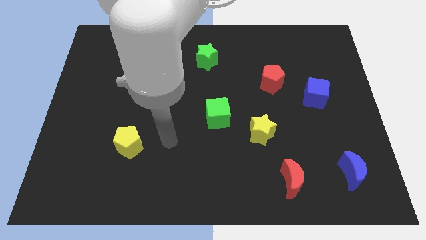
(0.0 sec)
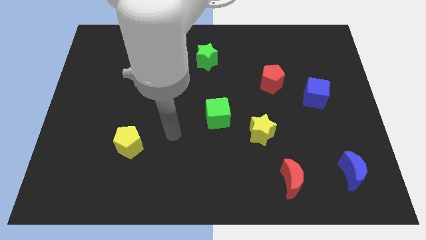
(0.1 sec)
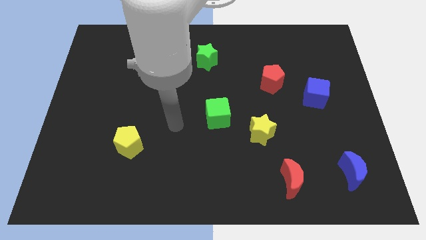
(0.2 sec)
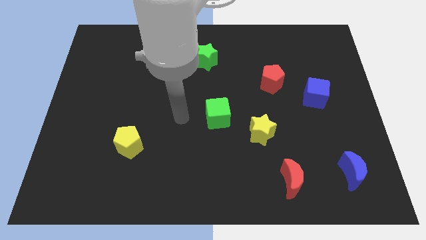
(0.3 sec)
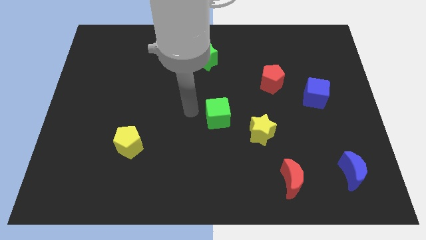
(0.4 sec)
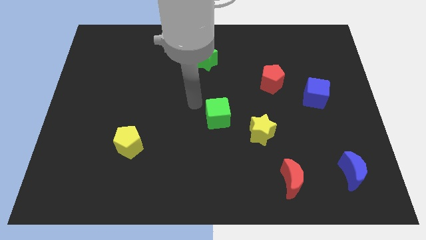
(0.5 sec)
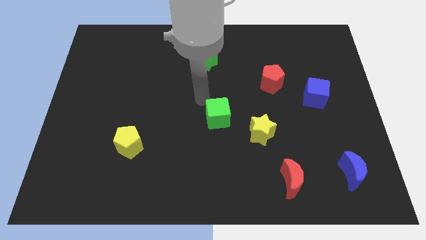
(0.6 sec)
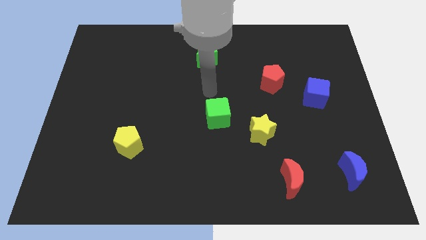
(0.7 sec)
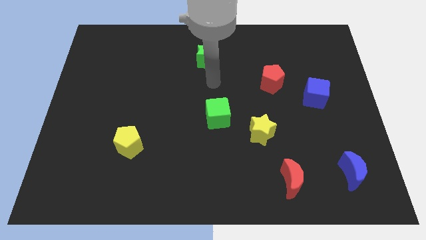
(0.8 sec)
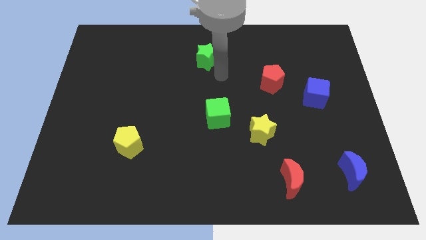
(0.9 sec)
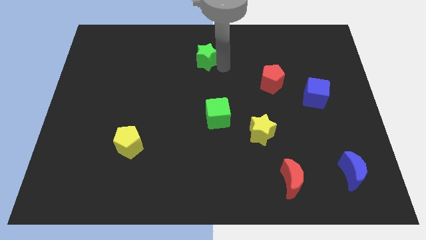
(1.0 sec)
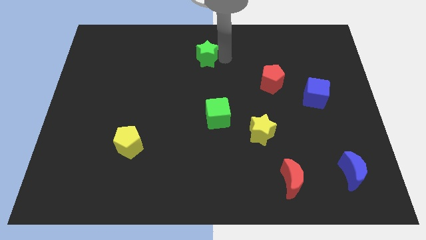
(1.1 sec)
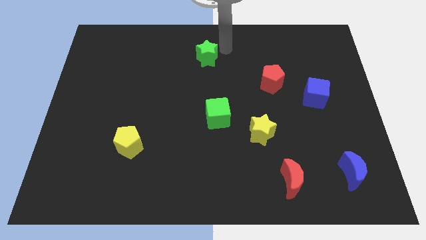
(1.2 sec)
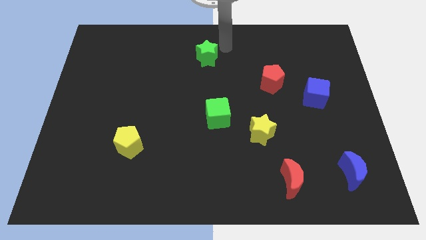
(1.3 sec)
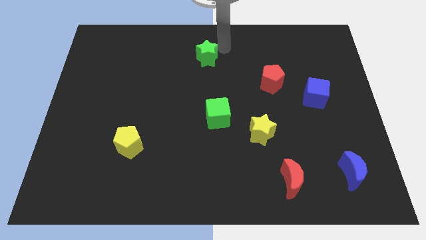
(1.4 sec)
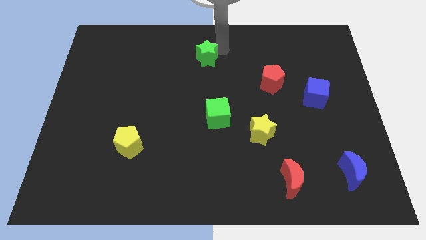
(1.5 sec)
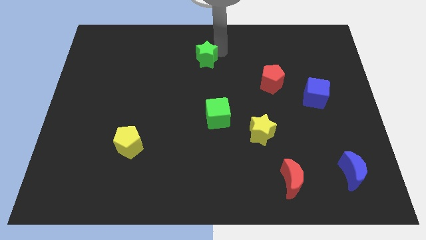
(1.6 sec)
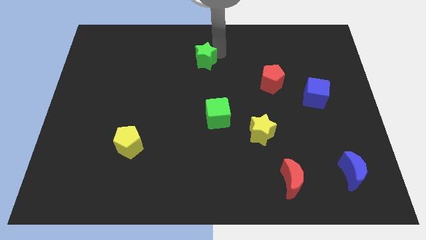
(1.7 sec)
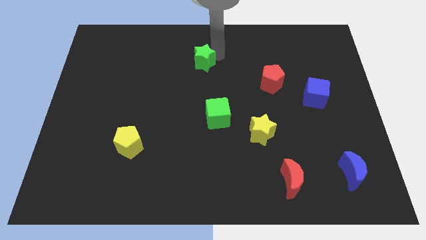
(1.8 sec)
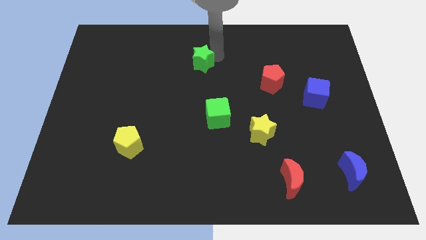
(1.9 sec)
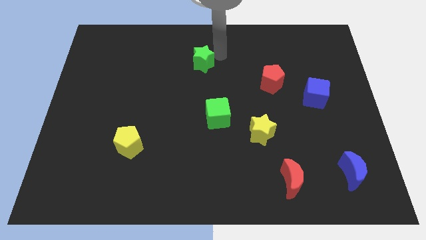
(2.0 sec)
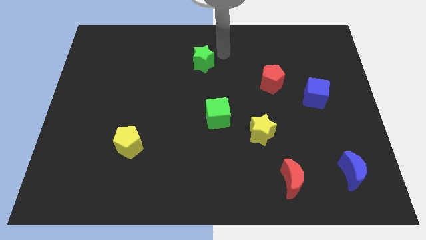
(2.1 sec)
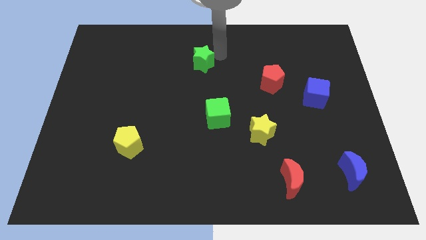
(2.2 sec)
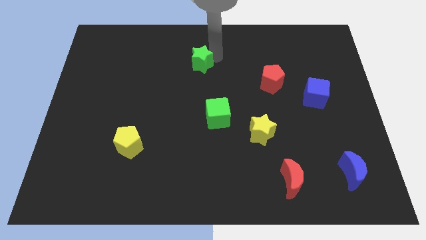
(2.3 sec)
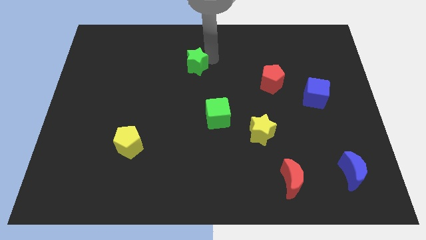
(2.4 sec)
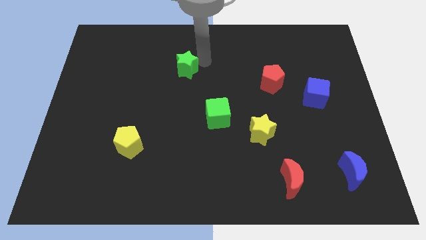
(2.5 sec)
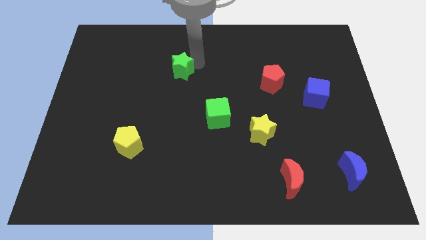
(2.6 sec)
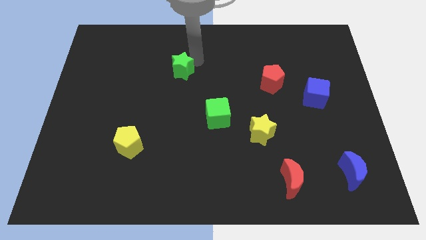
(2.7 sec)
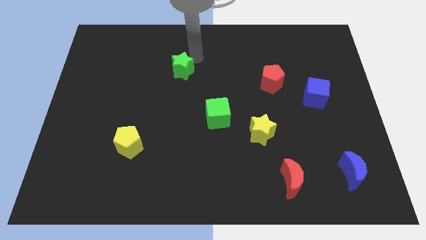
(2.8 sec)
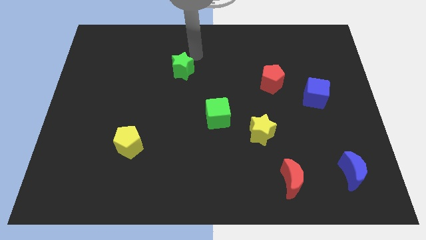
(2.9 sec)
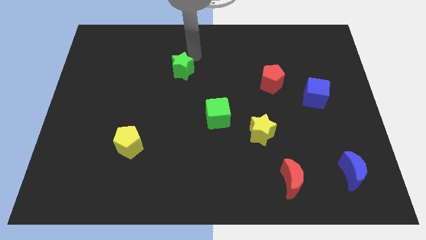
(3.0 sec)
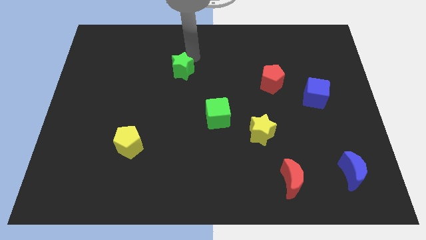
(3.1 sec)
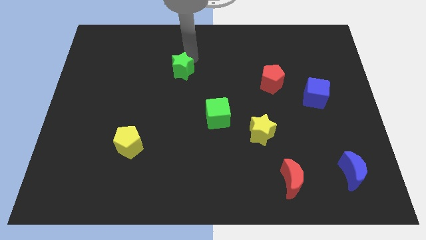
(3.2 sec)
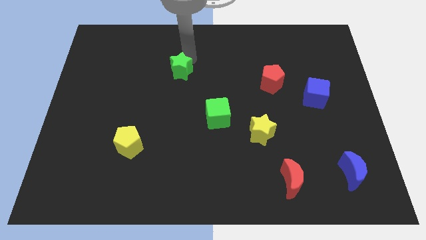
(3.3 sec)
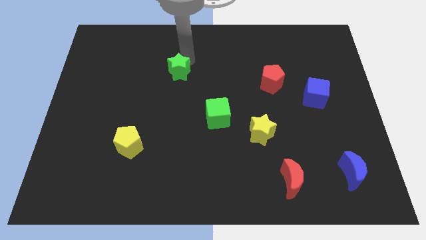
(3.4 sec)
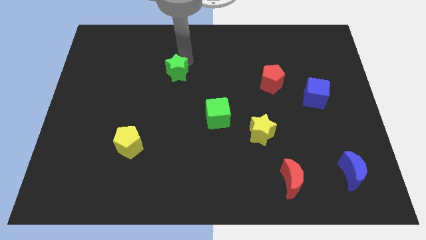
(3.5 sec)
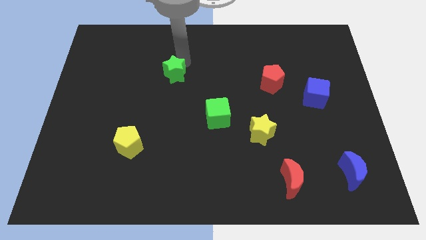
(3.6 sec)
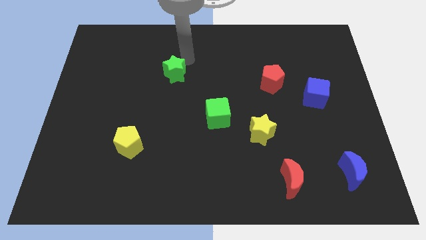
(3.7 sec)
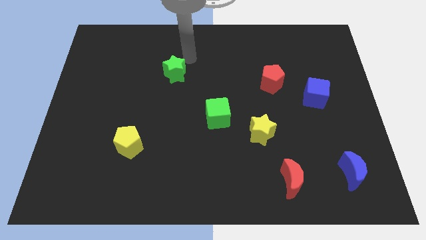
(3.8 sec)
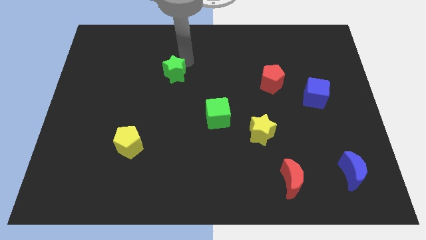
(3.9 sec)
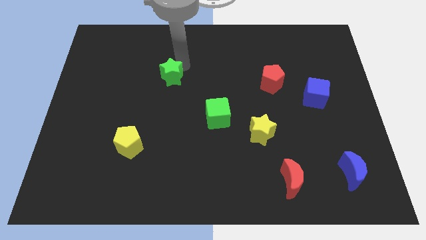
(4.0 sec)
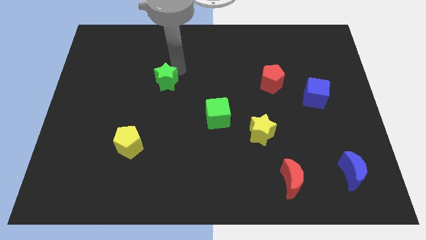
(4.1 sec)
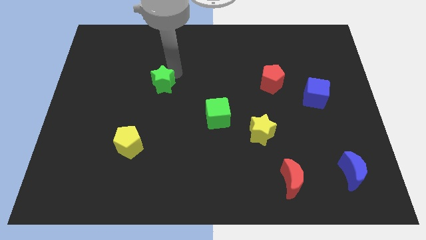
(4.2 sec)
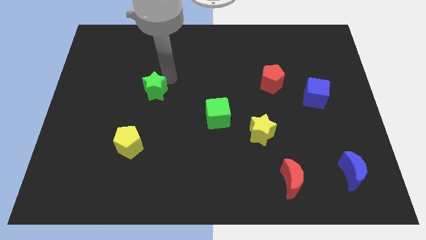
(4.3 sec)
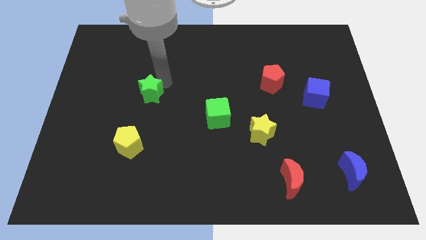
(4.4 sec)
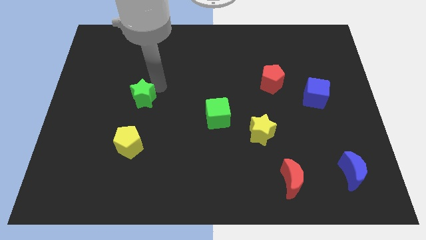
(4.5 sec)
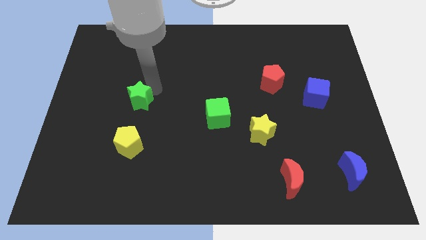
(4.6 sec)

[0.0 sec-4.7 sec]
move the green star down and left

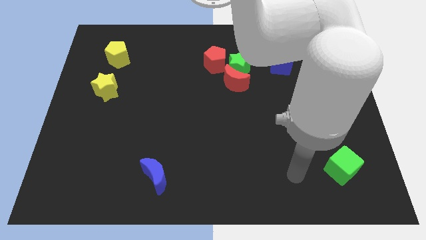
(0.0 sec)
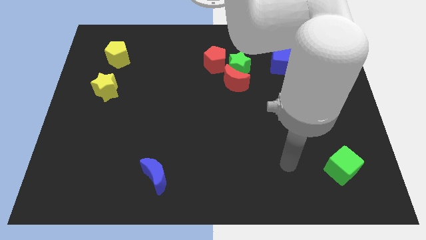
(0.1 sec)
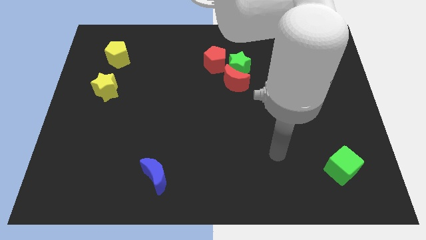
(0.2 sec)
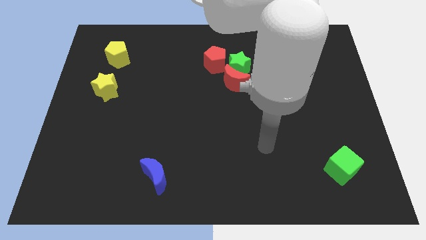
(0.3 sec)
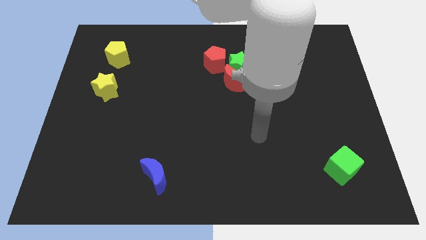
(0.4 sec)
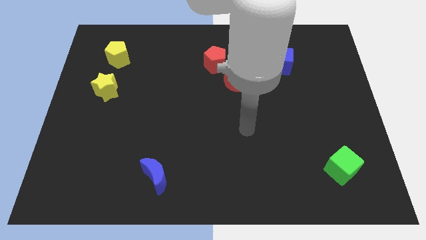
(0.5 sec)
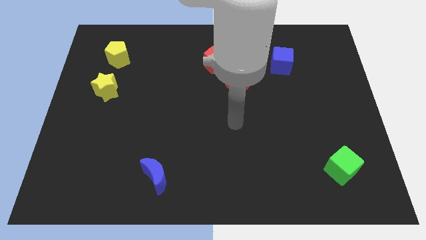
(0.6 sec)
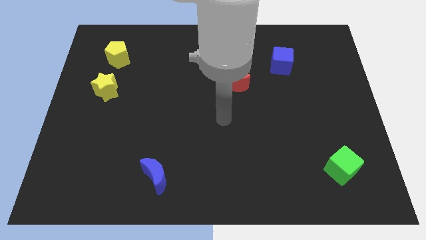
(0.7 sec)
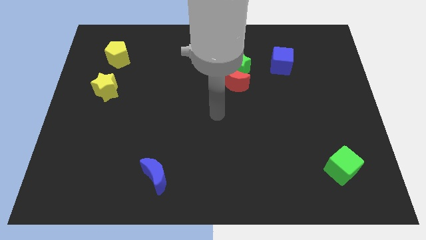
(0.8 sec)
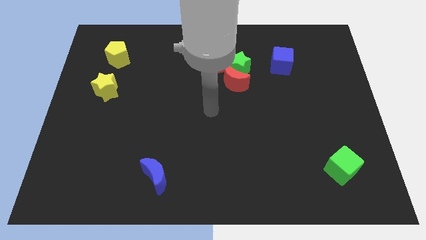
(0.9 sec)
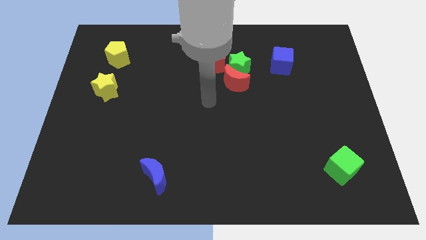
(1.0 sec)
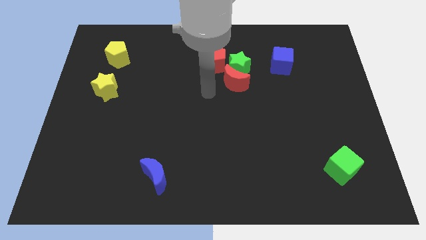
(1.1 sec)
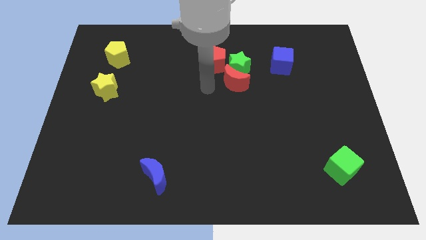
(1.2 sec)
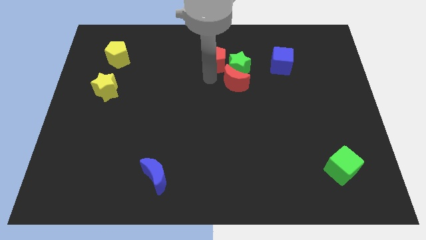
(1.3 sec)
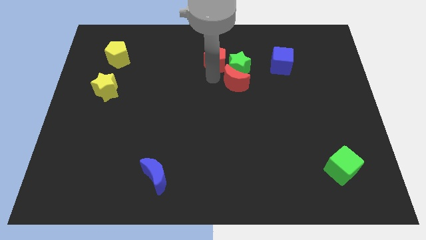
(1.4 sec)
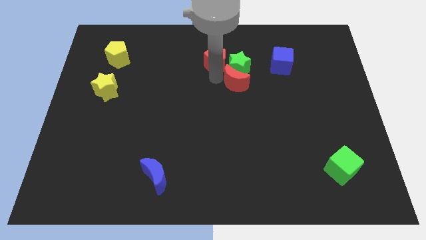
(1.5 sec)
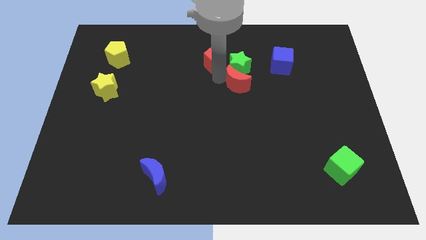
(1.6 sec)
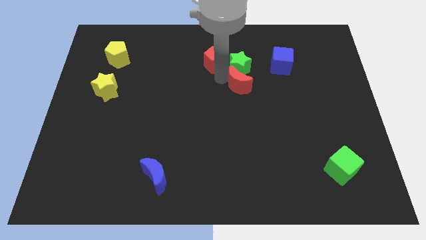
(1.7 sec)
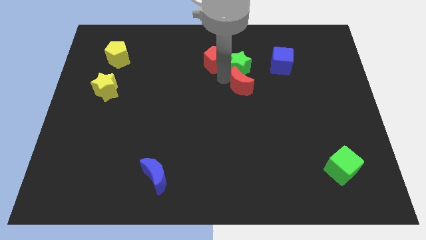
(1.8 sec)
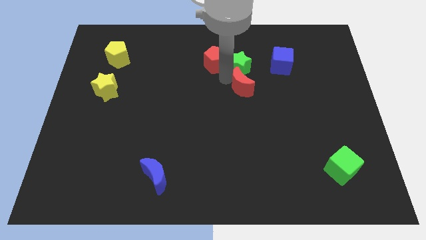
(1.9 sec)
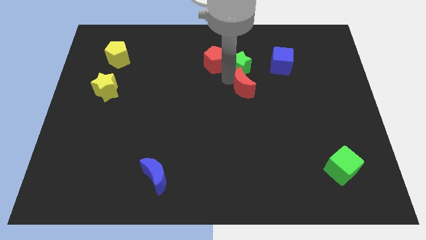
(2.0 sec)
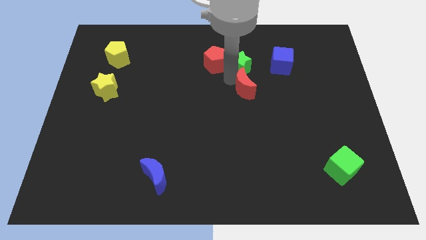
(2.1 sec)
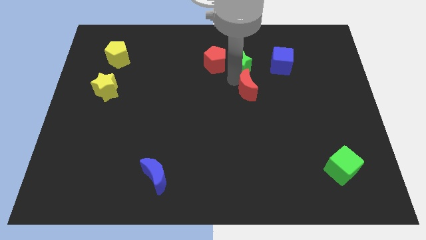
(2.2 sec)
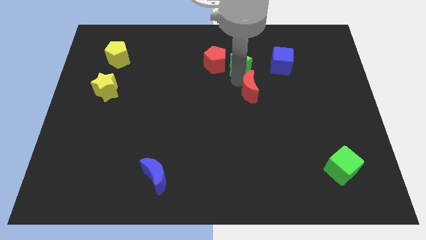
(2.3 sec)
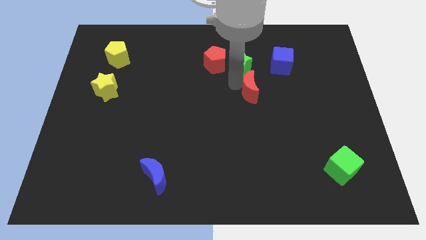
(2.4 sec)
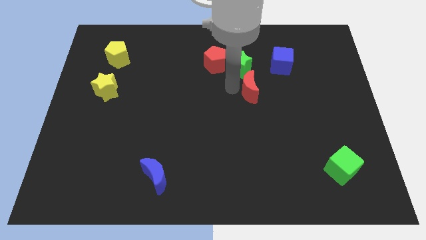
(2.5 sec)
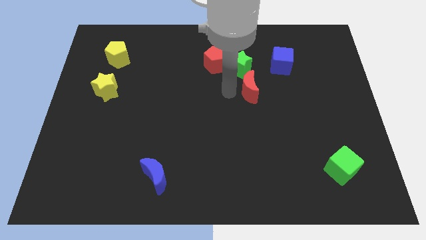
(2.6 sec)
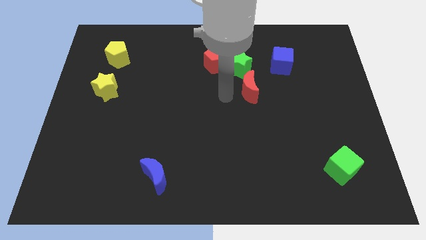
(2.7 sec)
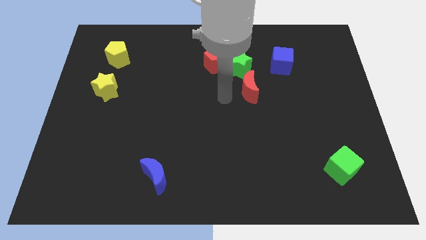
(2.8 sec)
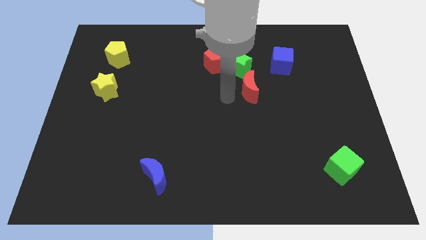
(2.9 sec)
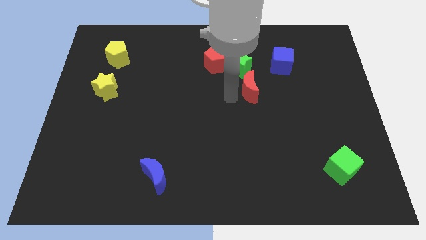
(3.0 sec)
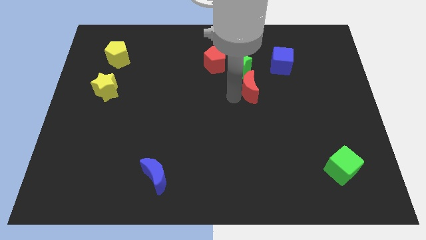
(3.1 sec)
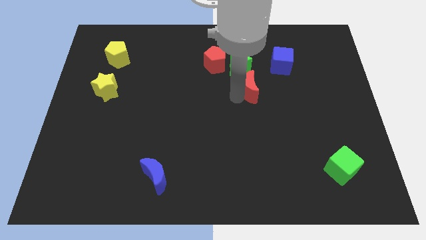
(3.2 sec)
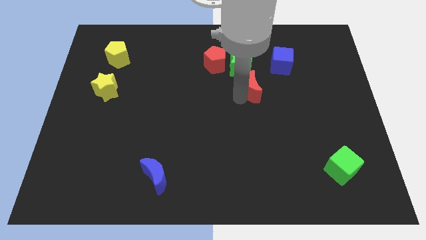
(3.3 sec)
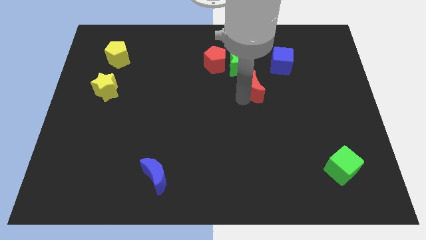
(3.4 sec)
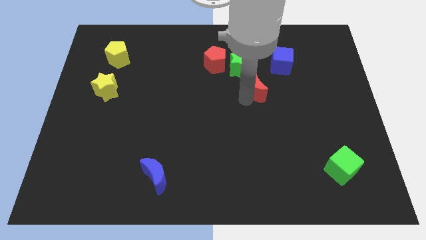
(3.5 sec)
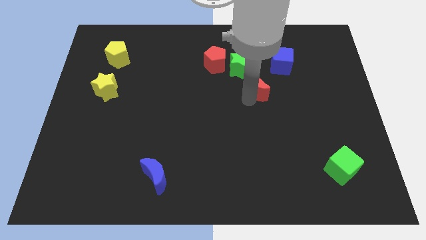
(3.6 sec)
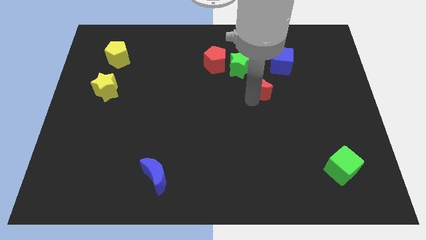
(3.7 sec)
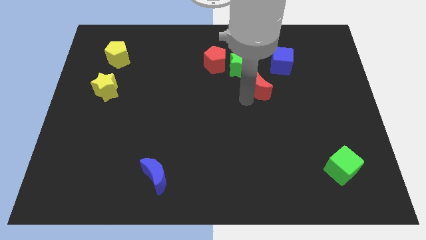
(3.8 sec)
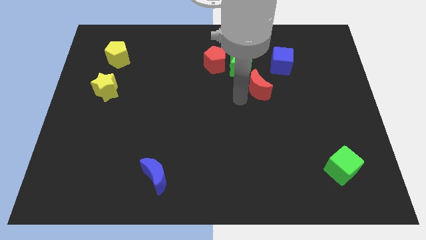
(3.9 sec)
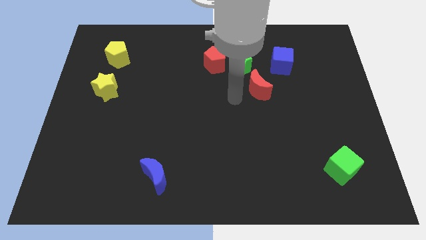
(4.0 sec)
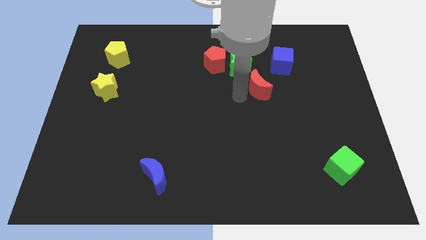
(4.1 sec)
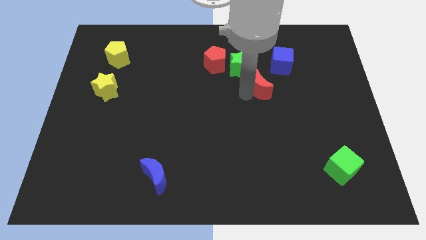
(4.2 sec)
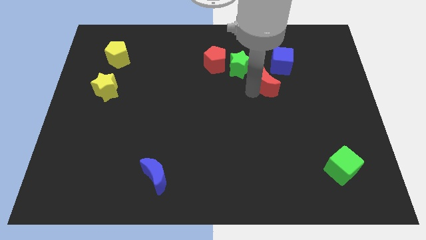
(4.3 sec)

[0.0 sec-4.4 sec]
slightly push the red moon to the right
